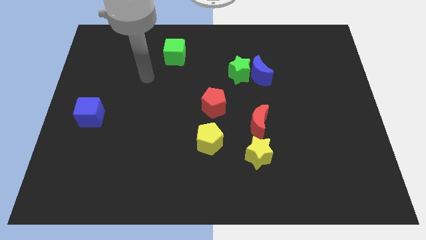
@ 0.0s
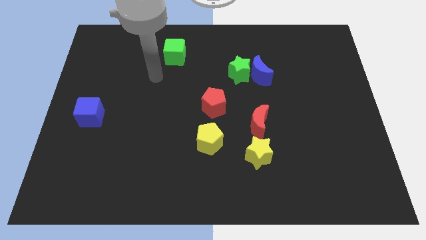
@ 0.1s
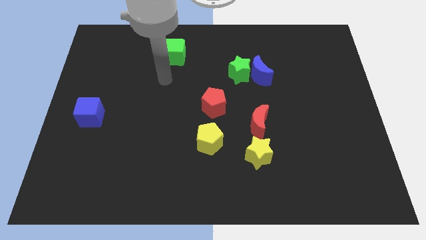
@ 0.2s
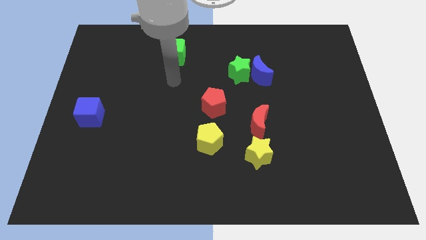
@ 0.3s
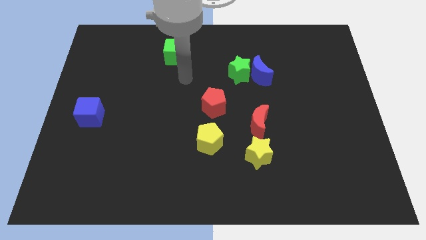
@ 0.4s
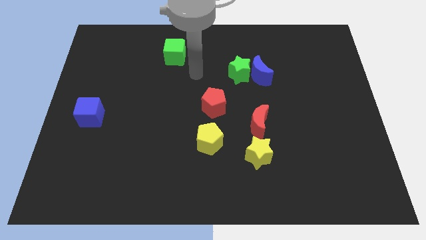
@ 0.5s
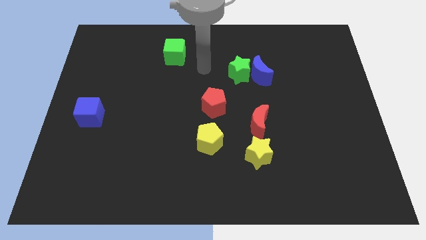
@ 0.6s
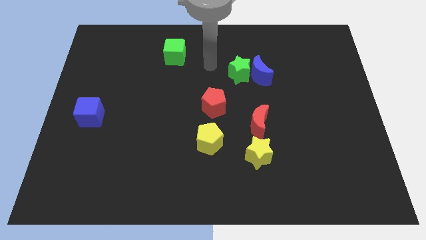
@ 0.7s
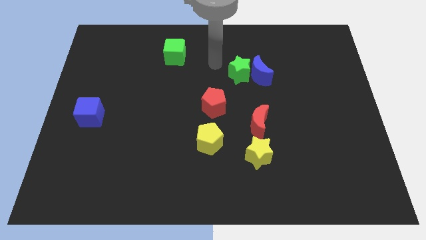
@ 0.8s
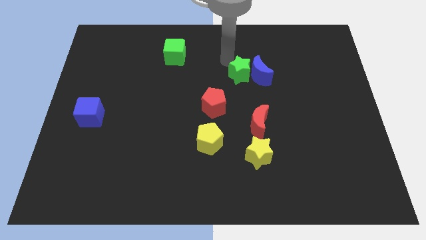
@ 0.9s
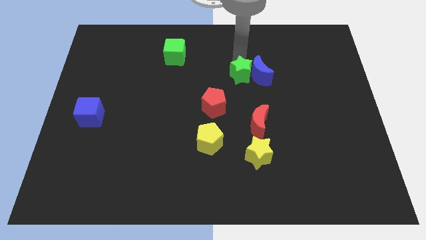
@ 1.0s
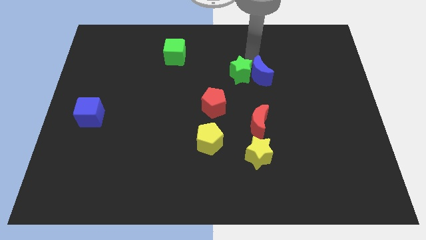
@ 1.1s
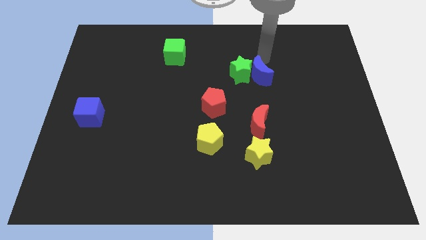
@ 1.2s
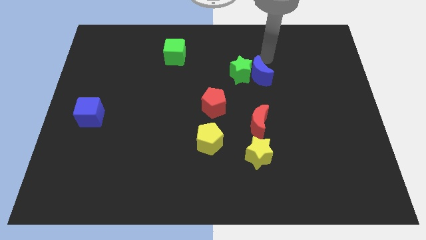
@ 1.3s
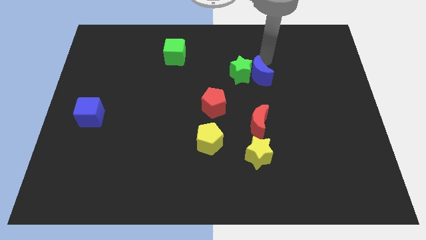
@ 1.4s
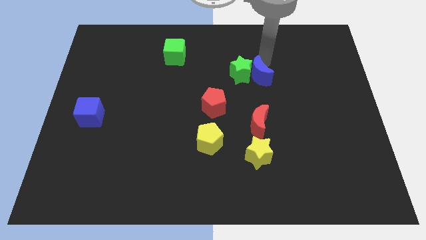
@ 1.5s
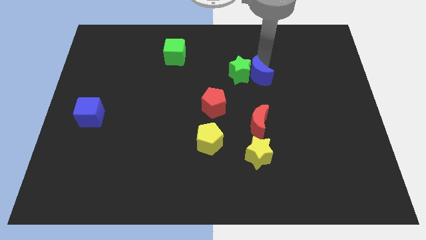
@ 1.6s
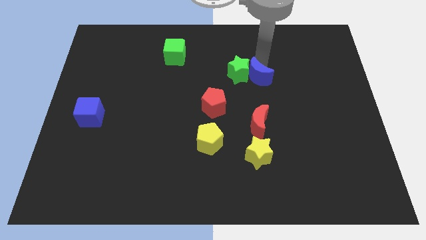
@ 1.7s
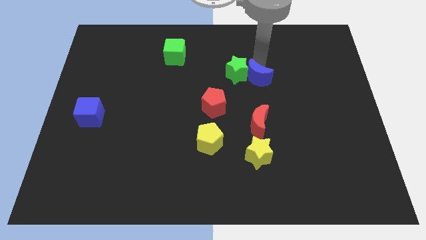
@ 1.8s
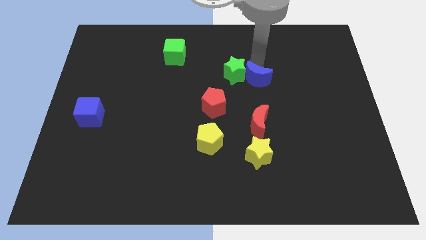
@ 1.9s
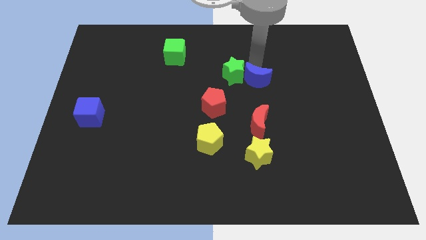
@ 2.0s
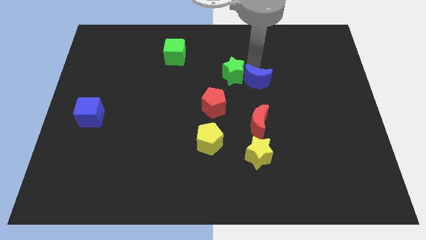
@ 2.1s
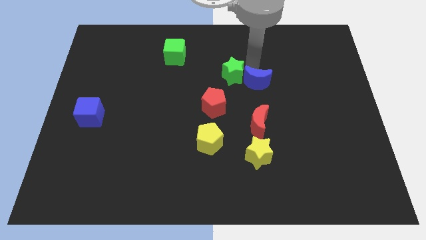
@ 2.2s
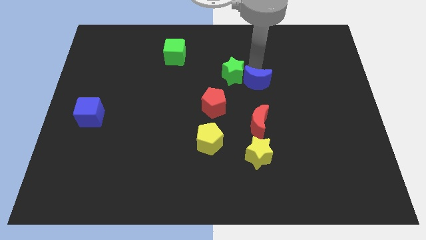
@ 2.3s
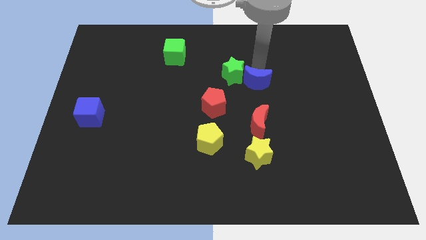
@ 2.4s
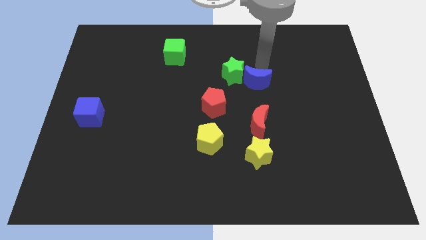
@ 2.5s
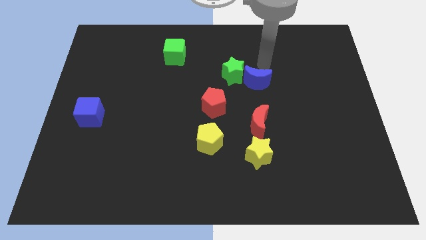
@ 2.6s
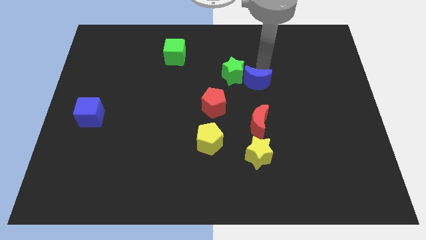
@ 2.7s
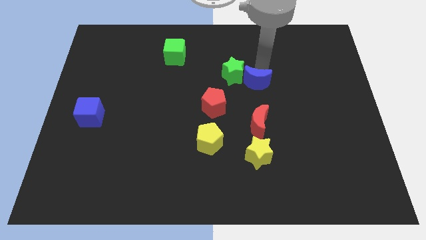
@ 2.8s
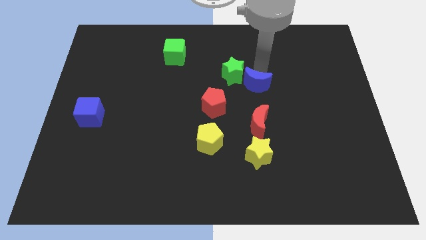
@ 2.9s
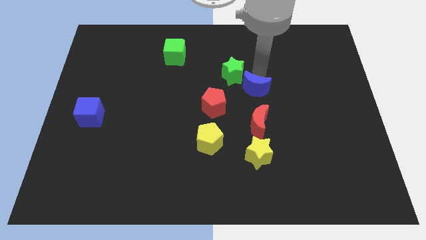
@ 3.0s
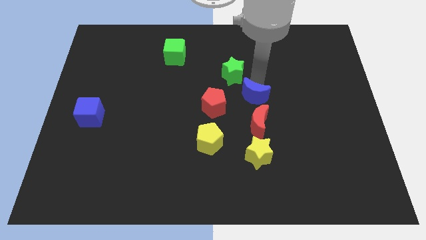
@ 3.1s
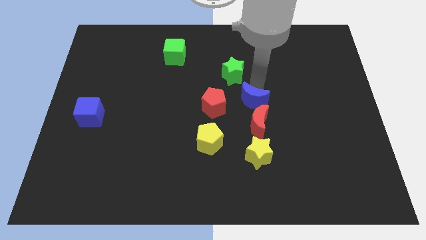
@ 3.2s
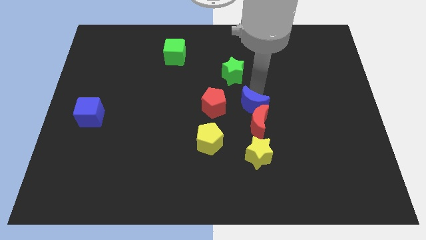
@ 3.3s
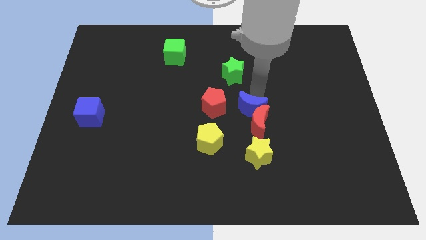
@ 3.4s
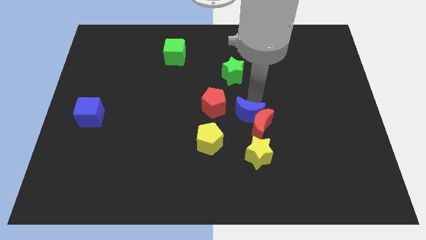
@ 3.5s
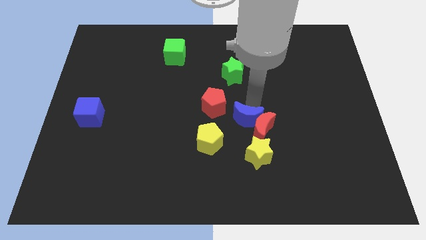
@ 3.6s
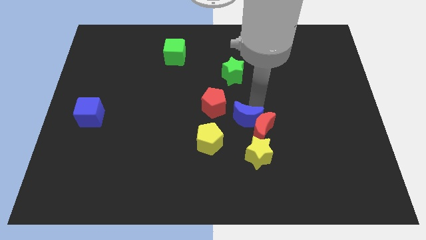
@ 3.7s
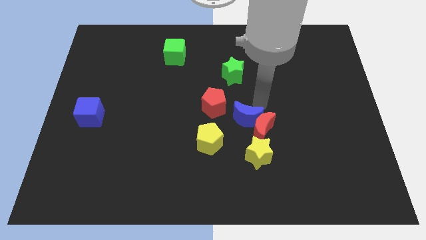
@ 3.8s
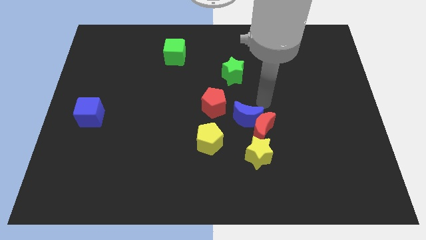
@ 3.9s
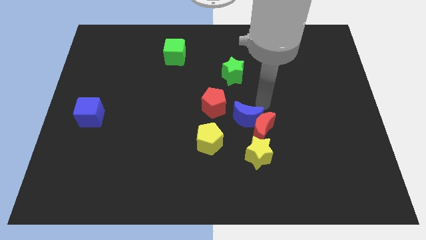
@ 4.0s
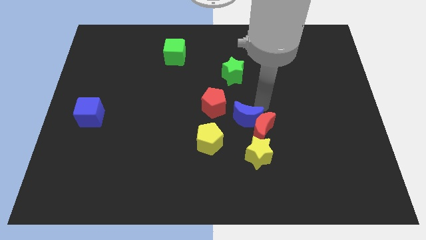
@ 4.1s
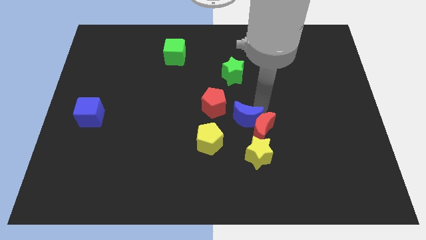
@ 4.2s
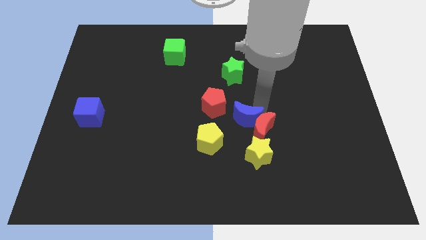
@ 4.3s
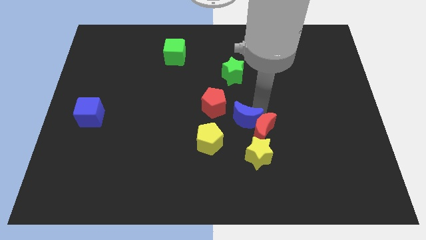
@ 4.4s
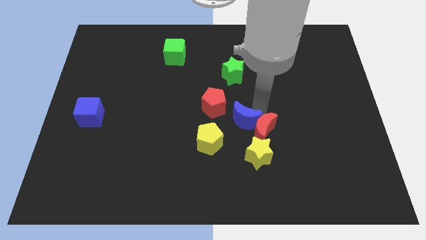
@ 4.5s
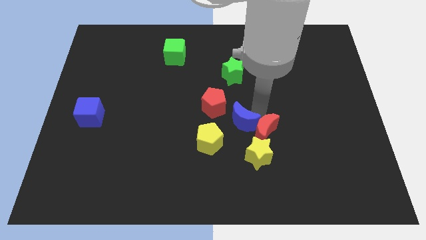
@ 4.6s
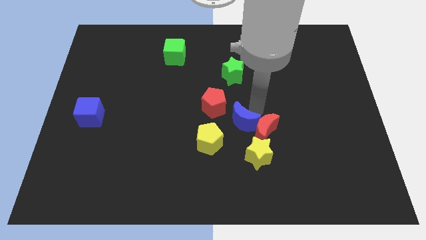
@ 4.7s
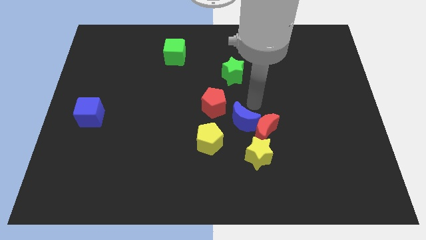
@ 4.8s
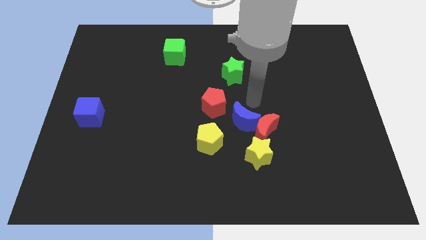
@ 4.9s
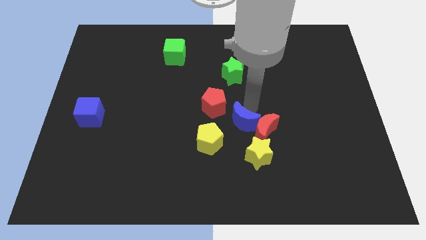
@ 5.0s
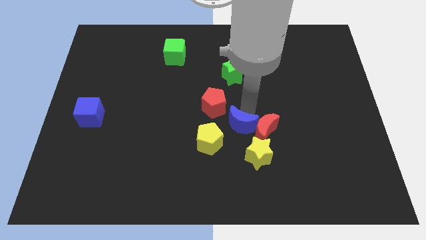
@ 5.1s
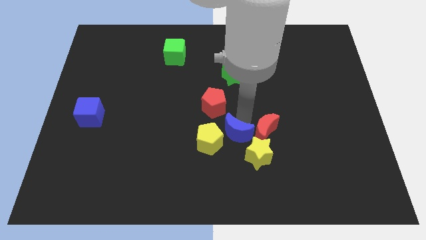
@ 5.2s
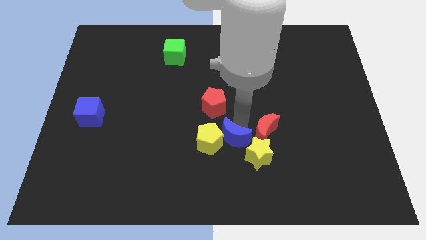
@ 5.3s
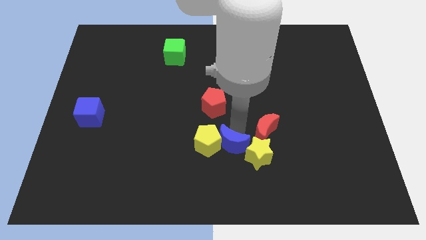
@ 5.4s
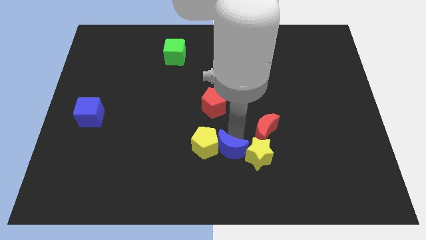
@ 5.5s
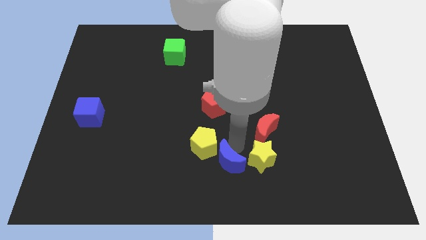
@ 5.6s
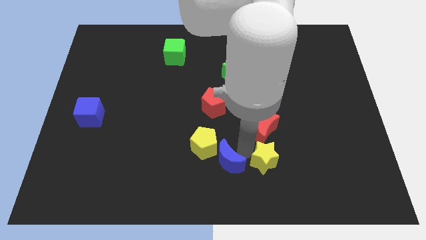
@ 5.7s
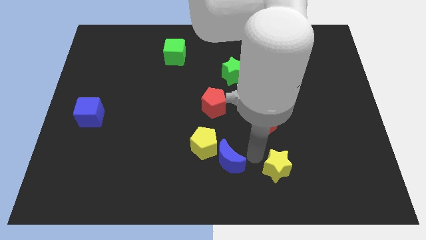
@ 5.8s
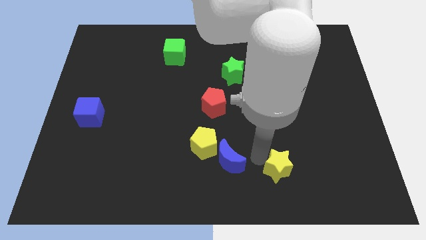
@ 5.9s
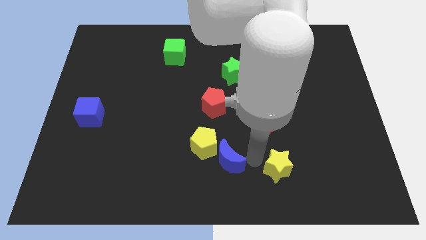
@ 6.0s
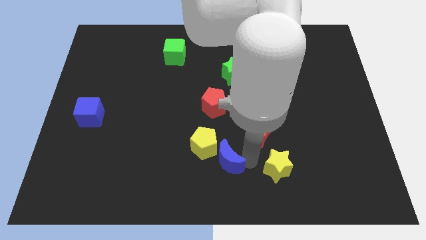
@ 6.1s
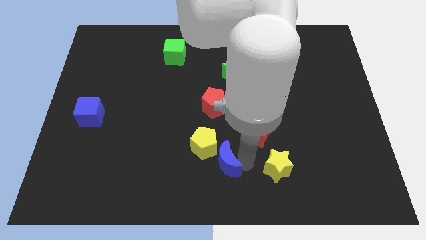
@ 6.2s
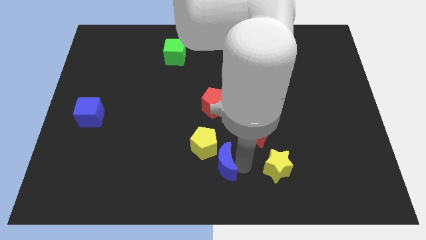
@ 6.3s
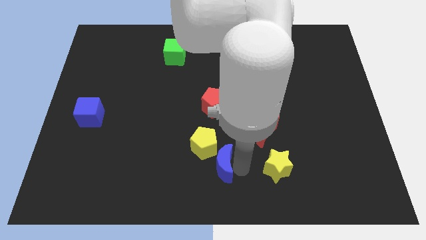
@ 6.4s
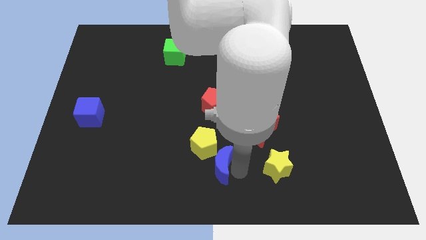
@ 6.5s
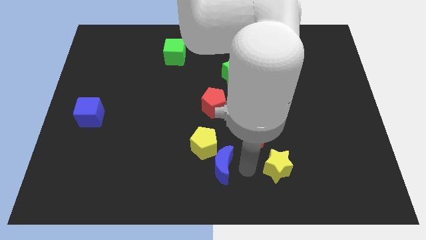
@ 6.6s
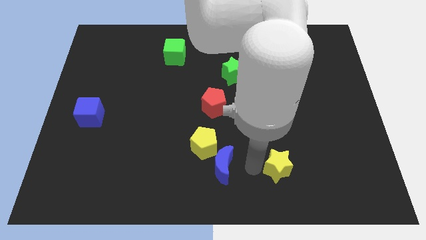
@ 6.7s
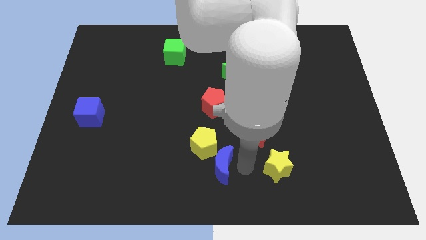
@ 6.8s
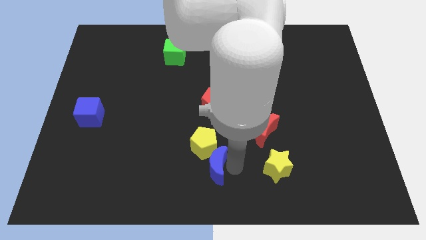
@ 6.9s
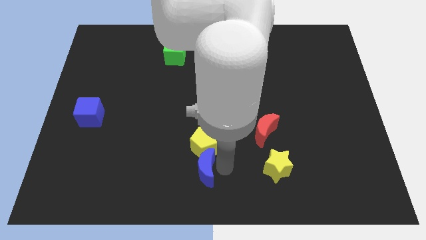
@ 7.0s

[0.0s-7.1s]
move the blue moon diagonally down and to the left of the yellow pentagon
